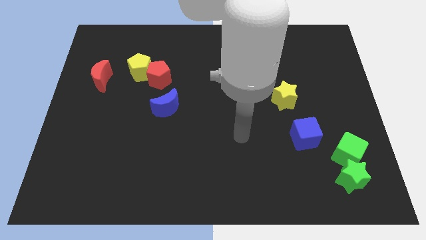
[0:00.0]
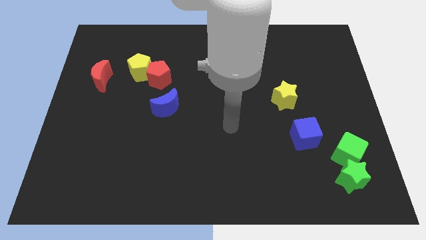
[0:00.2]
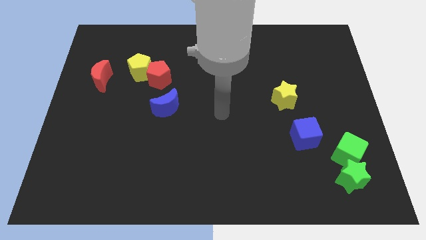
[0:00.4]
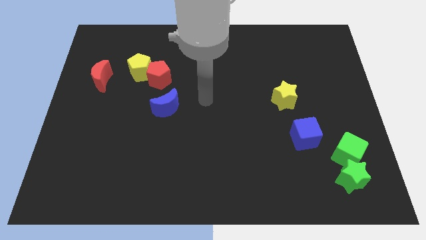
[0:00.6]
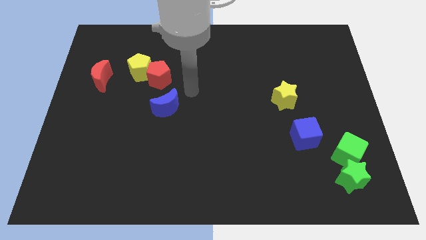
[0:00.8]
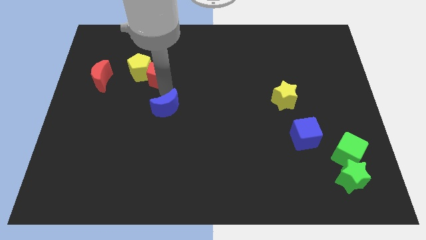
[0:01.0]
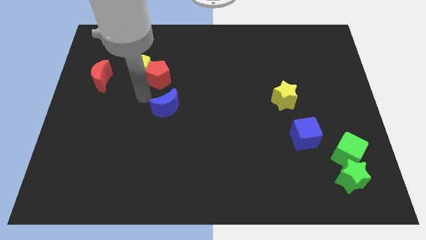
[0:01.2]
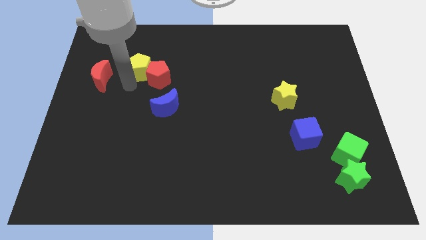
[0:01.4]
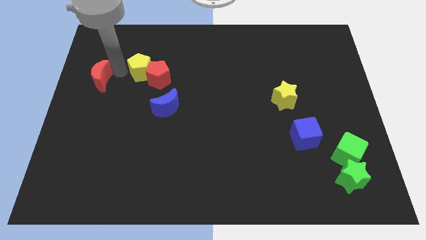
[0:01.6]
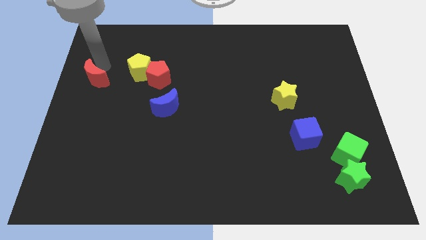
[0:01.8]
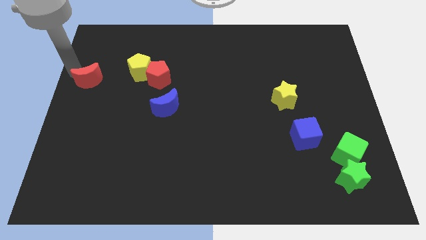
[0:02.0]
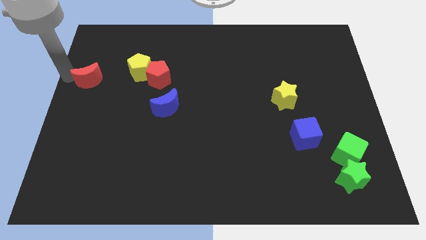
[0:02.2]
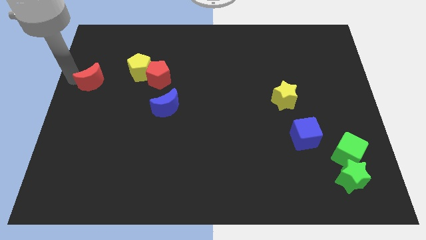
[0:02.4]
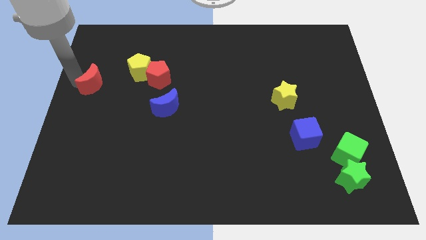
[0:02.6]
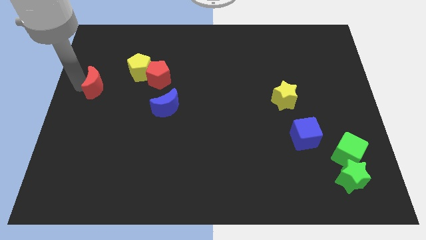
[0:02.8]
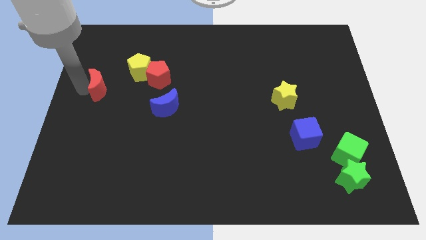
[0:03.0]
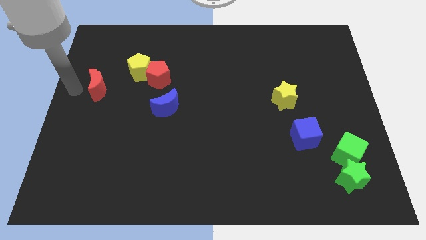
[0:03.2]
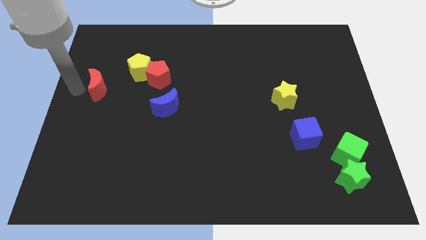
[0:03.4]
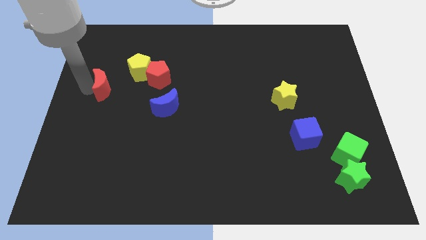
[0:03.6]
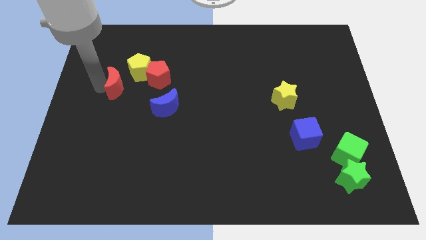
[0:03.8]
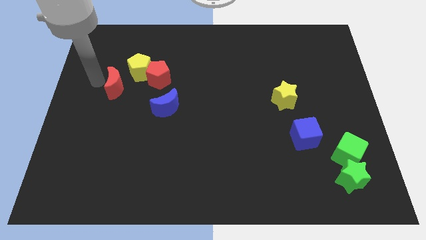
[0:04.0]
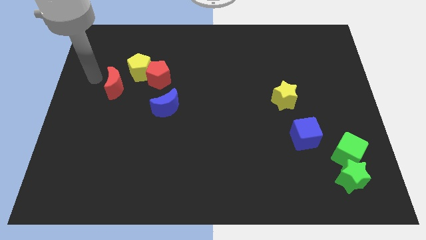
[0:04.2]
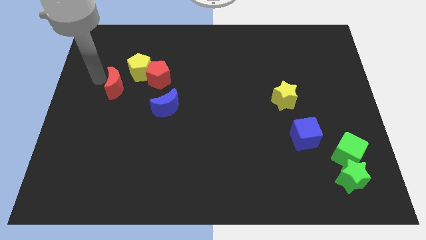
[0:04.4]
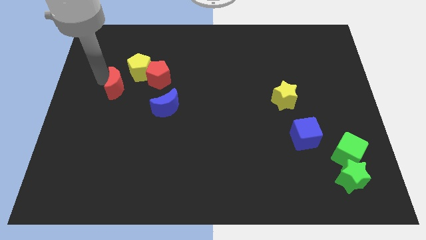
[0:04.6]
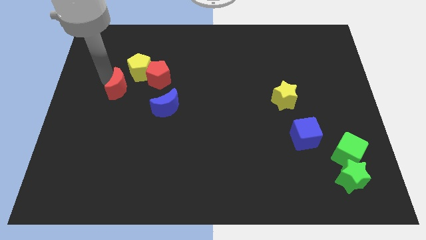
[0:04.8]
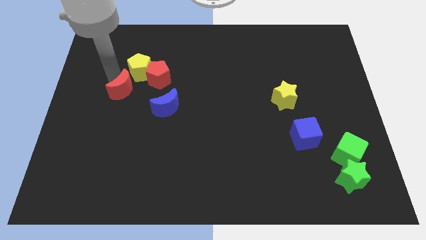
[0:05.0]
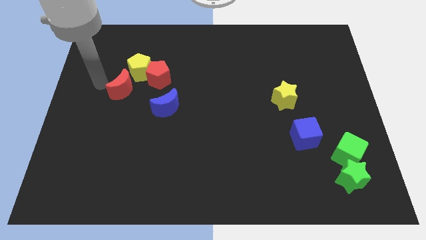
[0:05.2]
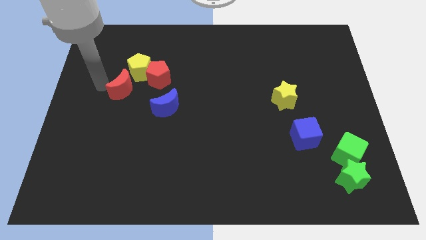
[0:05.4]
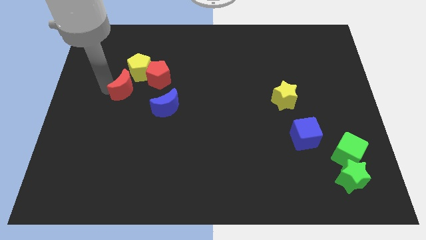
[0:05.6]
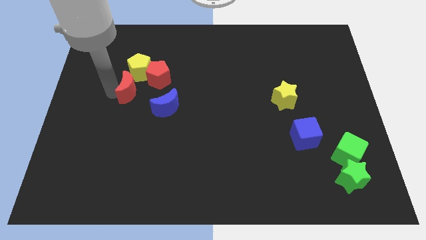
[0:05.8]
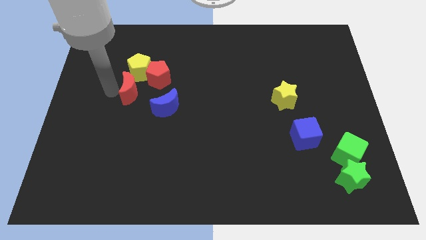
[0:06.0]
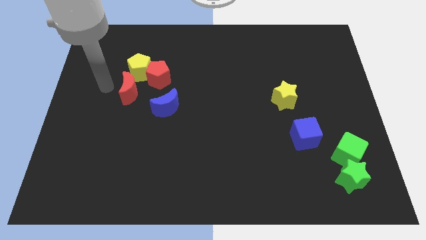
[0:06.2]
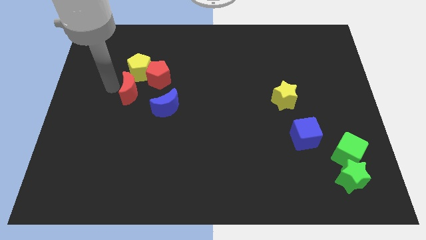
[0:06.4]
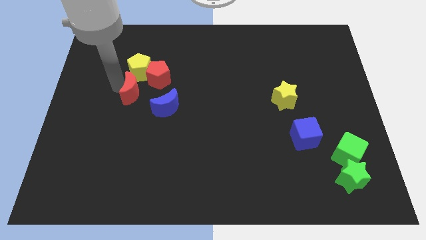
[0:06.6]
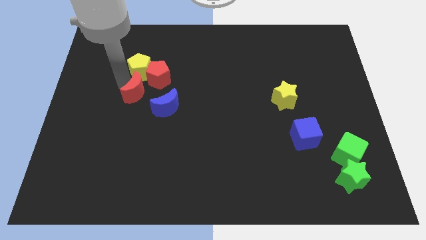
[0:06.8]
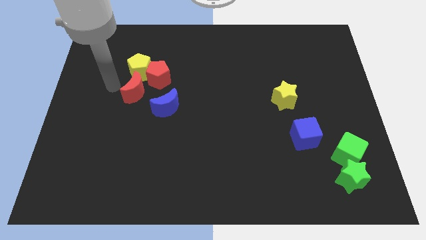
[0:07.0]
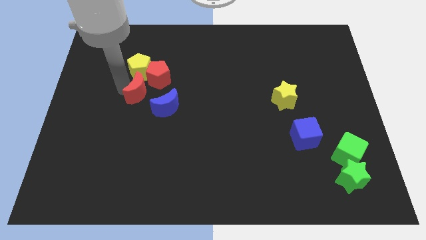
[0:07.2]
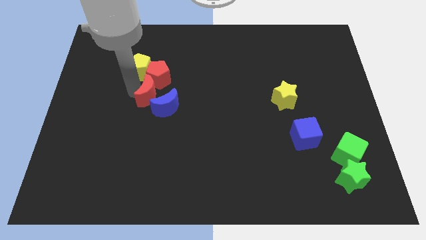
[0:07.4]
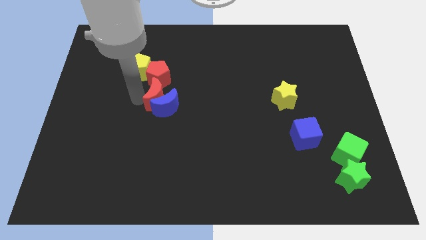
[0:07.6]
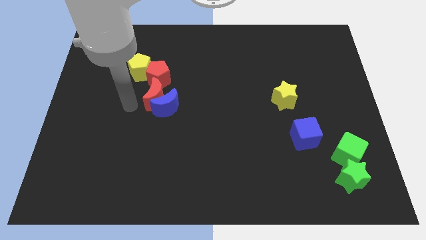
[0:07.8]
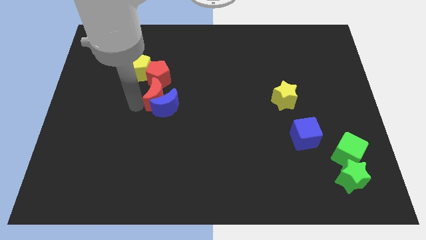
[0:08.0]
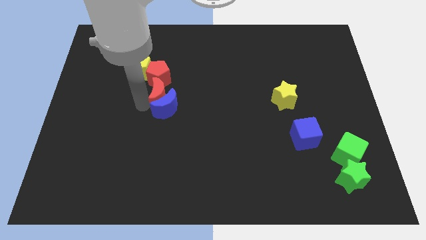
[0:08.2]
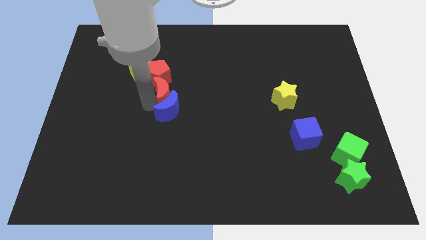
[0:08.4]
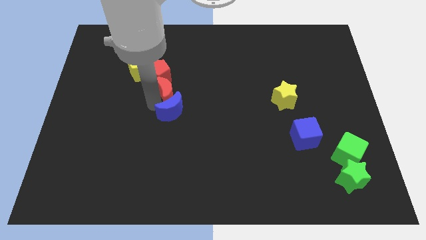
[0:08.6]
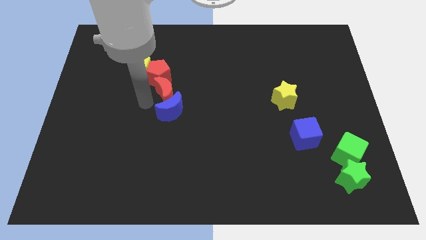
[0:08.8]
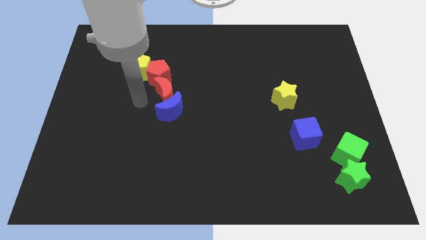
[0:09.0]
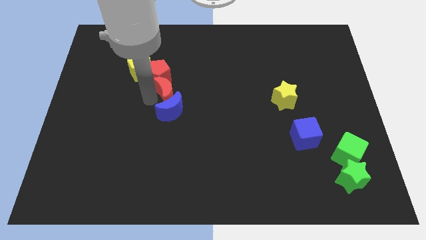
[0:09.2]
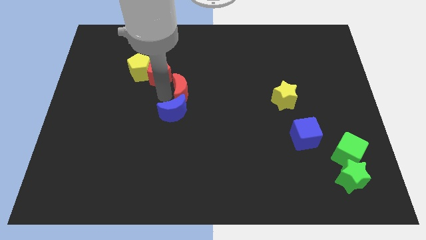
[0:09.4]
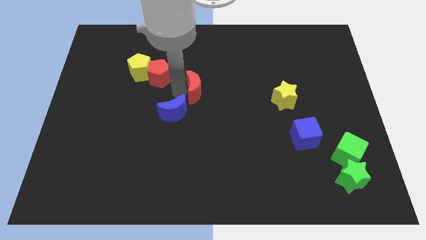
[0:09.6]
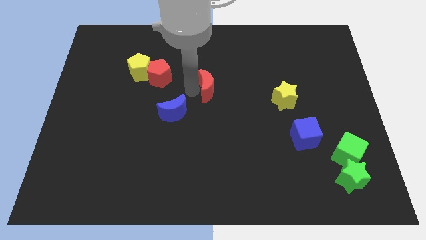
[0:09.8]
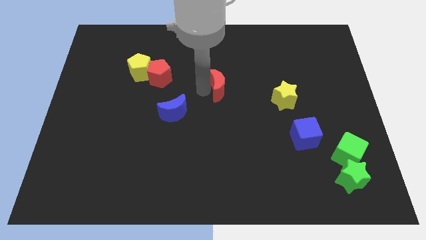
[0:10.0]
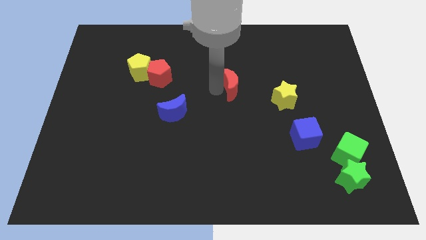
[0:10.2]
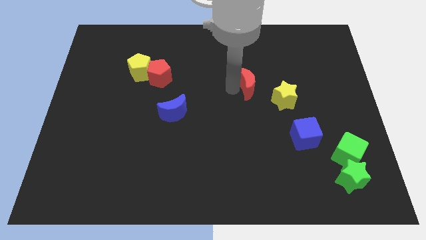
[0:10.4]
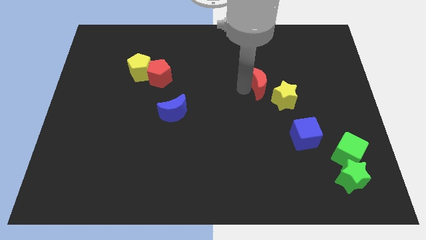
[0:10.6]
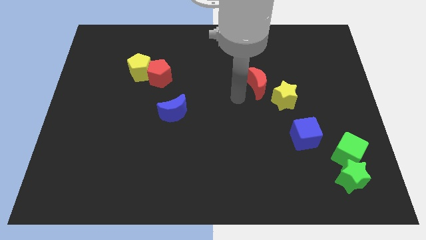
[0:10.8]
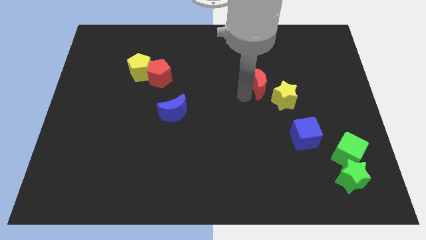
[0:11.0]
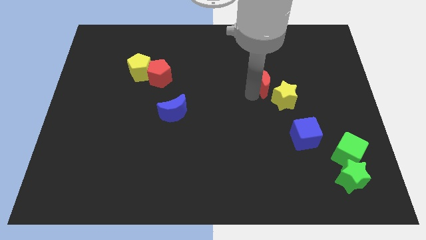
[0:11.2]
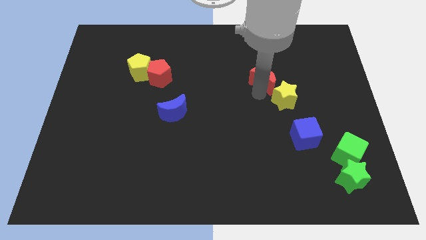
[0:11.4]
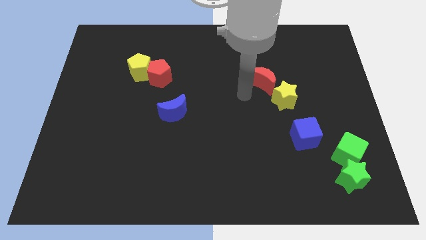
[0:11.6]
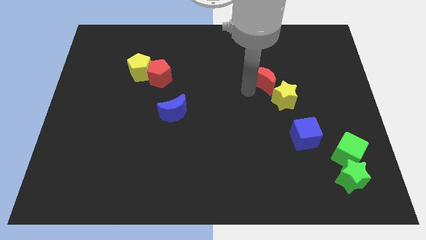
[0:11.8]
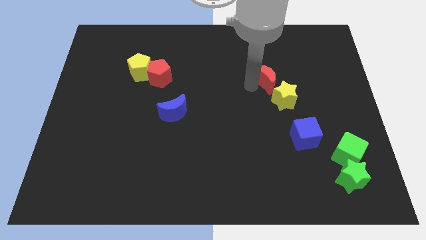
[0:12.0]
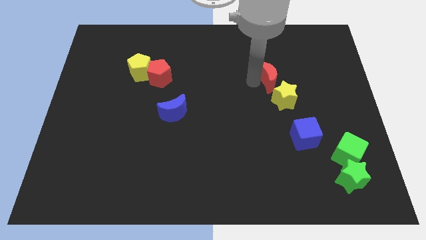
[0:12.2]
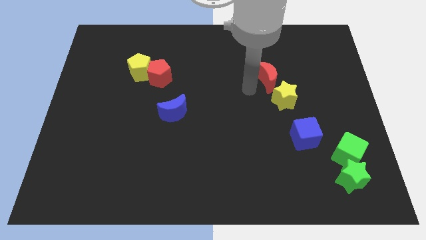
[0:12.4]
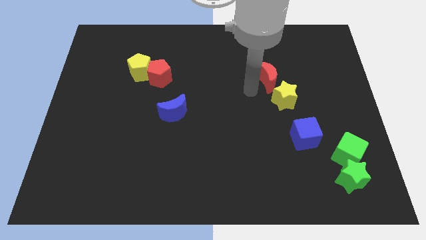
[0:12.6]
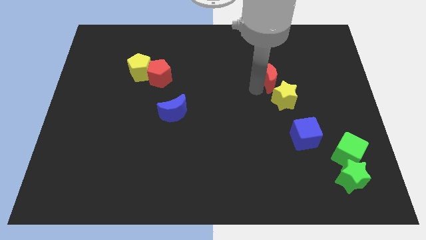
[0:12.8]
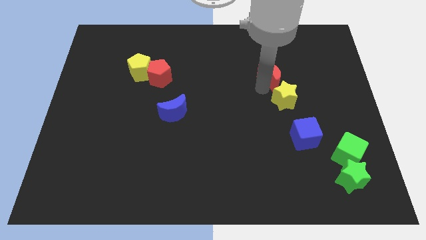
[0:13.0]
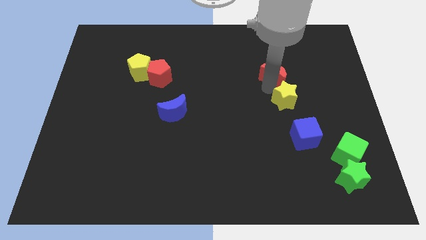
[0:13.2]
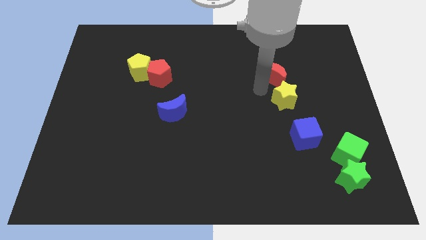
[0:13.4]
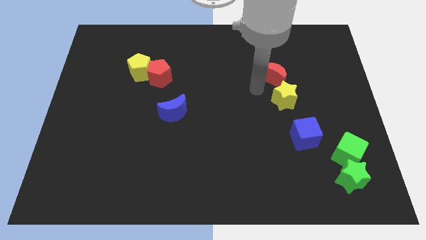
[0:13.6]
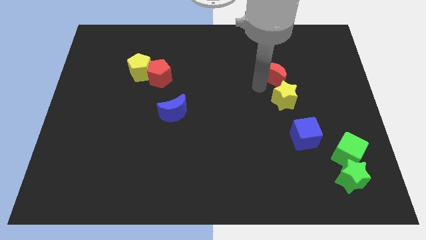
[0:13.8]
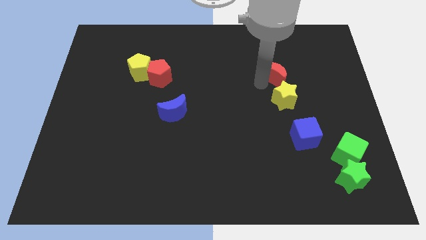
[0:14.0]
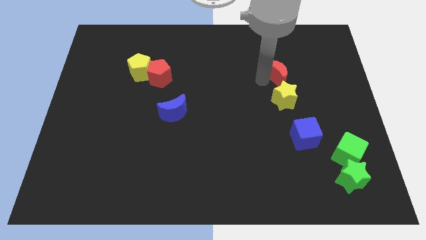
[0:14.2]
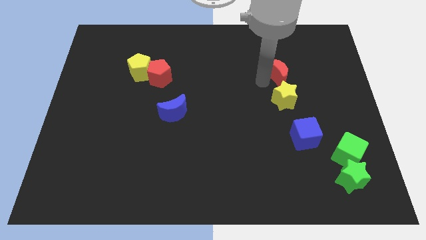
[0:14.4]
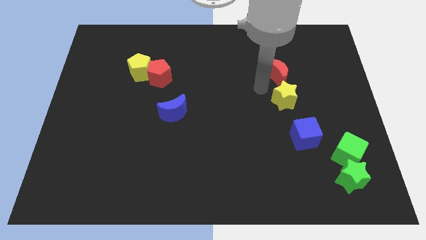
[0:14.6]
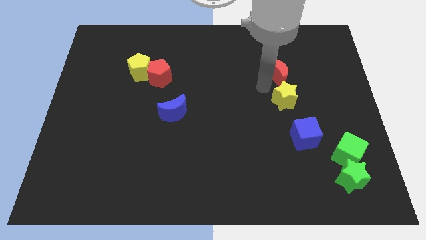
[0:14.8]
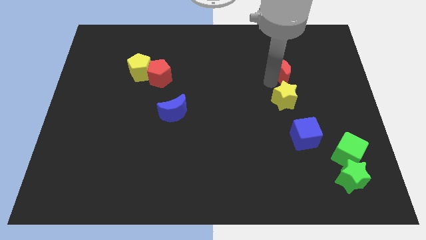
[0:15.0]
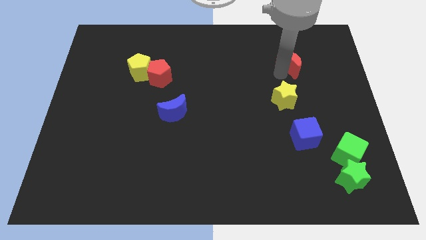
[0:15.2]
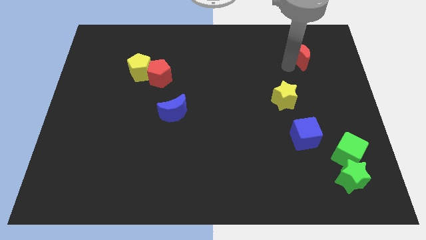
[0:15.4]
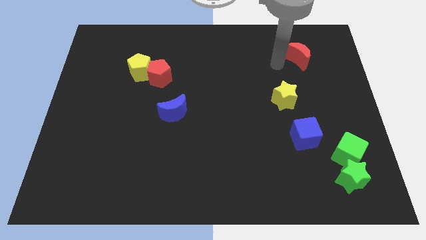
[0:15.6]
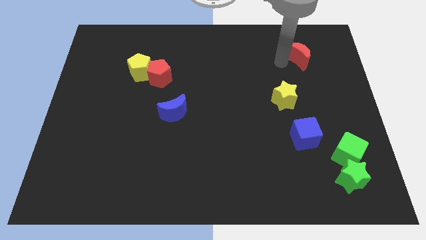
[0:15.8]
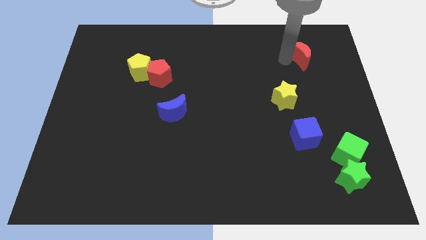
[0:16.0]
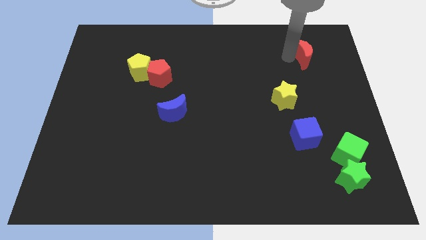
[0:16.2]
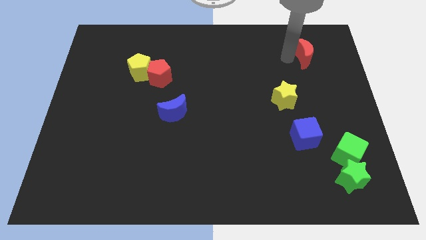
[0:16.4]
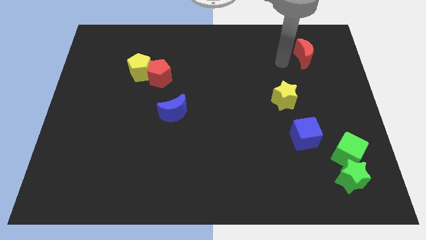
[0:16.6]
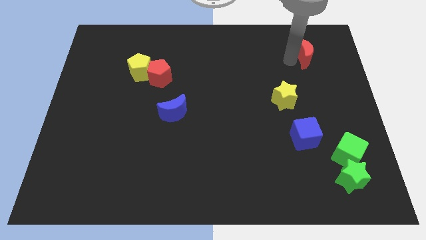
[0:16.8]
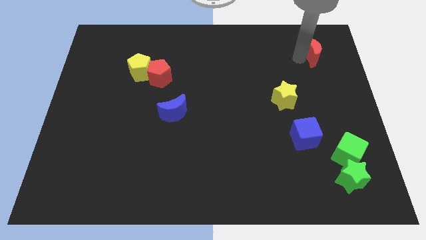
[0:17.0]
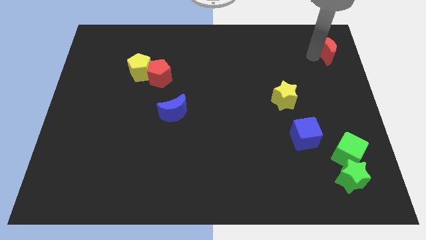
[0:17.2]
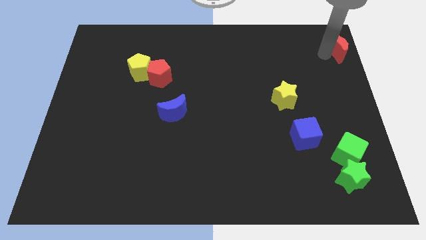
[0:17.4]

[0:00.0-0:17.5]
push the red moon to the top right corner
